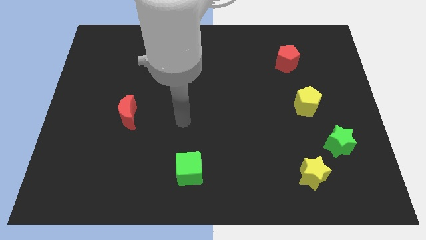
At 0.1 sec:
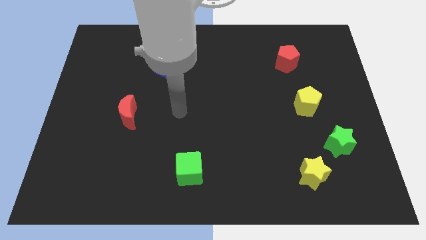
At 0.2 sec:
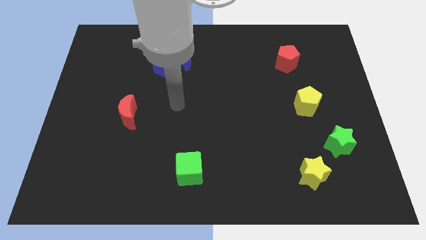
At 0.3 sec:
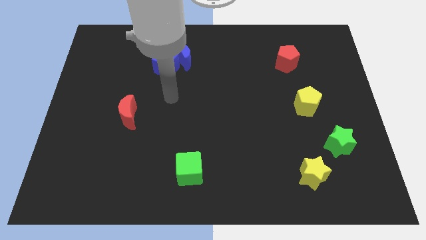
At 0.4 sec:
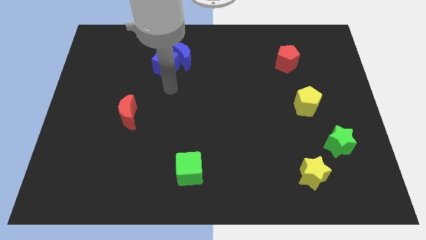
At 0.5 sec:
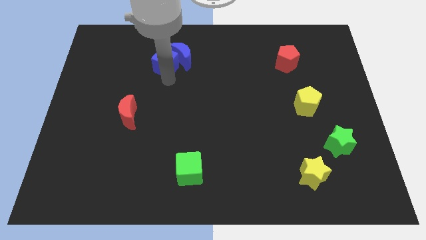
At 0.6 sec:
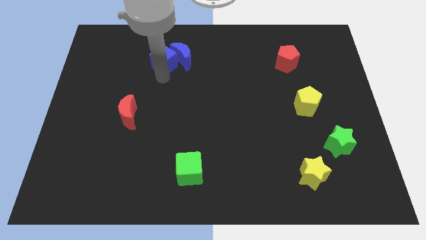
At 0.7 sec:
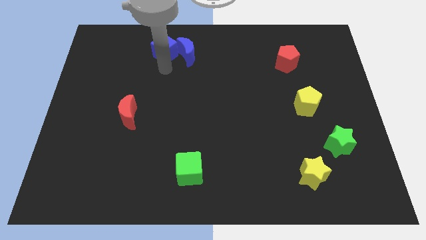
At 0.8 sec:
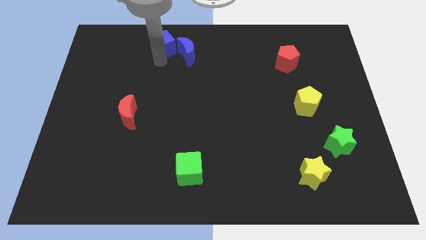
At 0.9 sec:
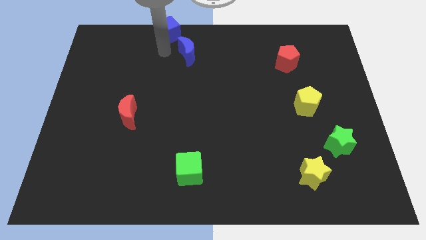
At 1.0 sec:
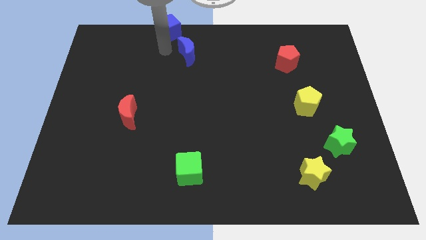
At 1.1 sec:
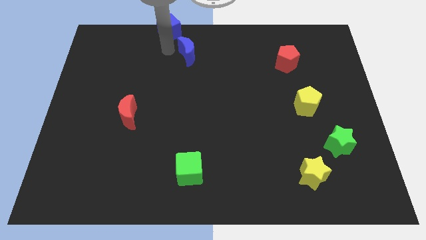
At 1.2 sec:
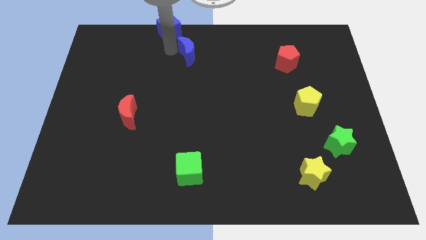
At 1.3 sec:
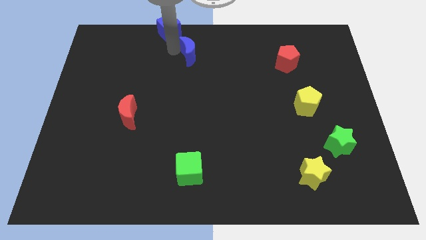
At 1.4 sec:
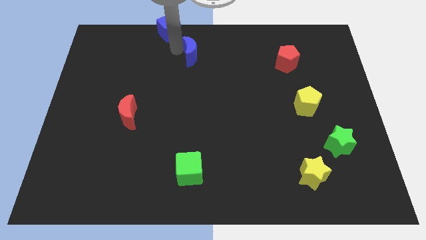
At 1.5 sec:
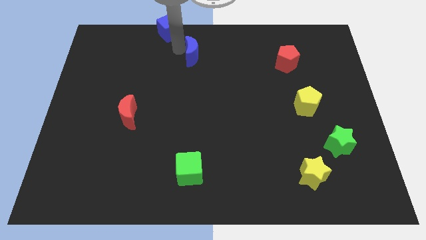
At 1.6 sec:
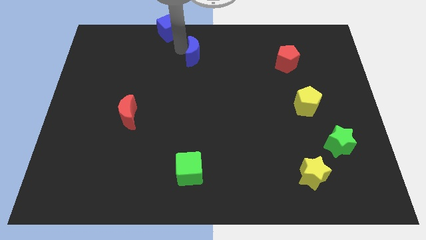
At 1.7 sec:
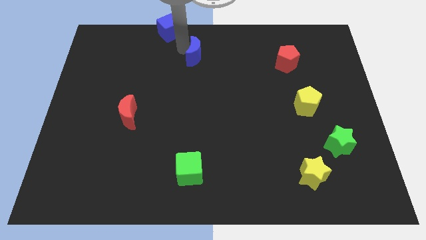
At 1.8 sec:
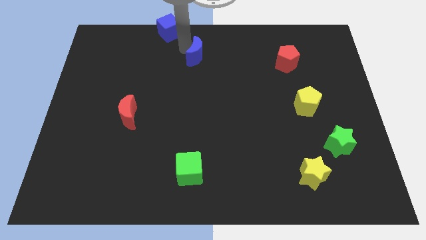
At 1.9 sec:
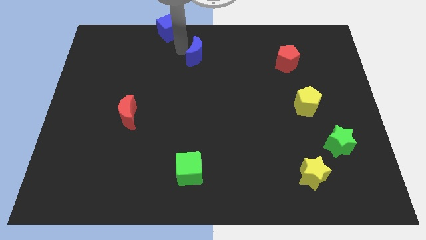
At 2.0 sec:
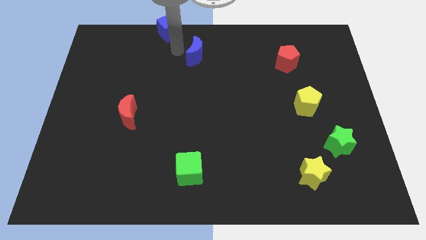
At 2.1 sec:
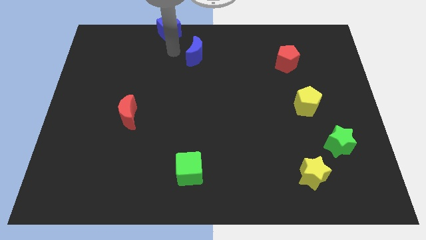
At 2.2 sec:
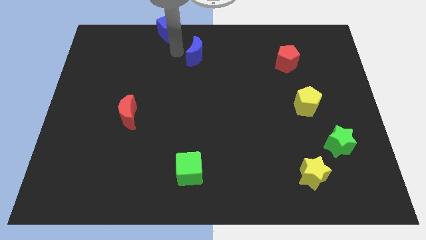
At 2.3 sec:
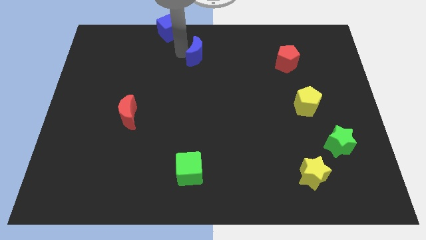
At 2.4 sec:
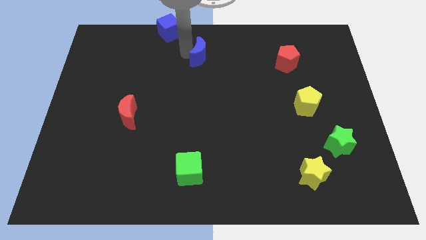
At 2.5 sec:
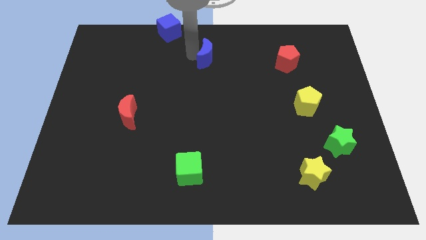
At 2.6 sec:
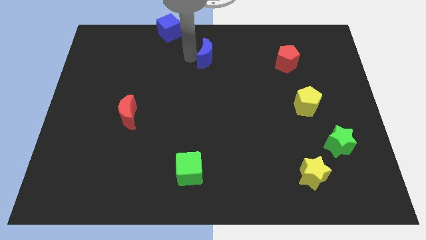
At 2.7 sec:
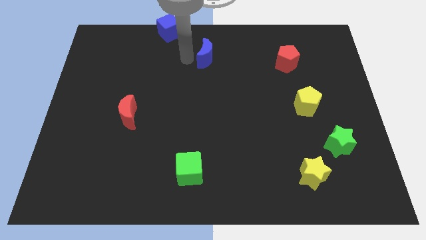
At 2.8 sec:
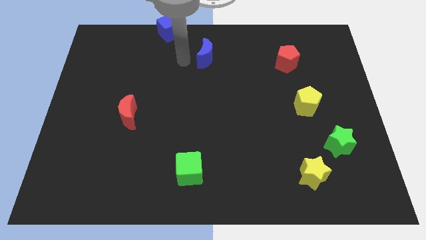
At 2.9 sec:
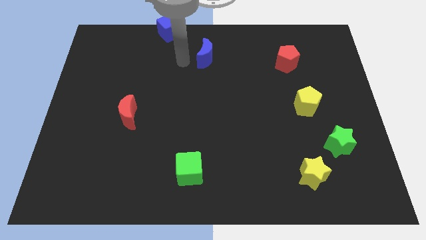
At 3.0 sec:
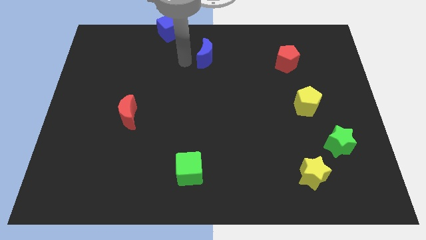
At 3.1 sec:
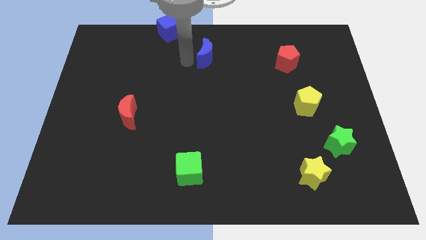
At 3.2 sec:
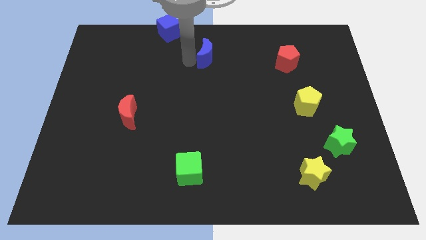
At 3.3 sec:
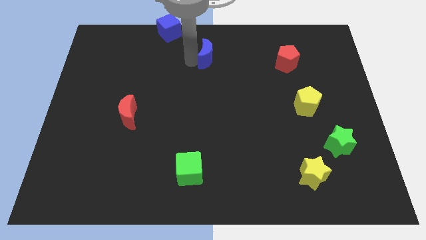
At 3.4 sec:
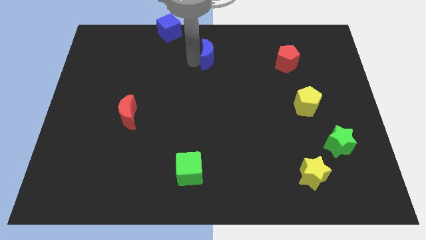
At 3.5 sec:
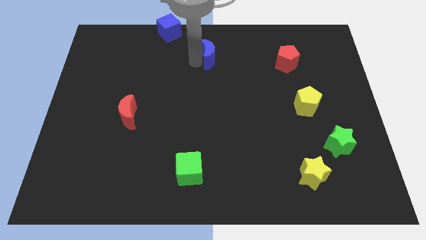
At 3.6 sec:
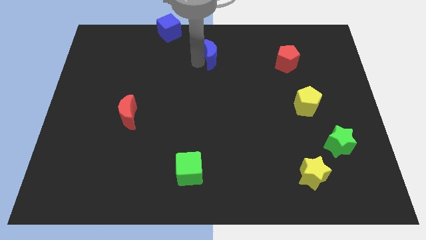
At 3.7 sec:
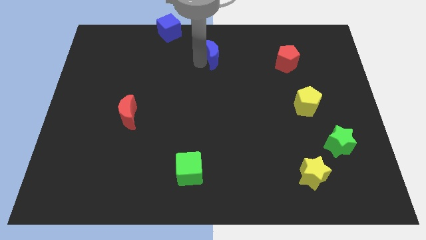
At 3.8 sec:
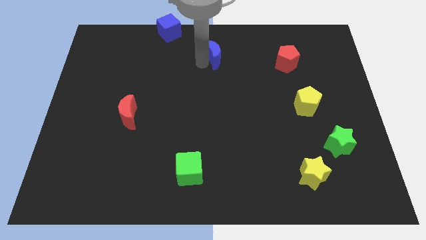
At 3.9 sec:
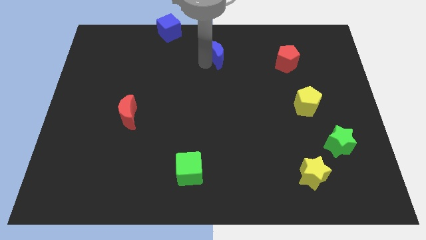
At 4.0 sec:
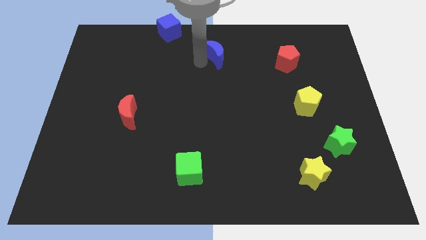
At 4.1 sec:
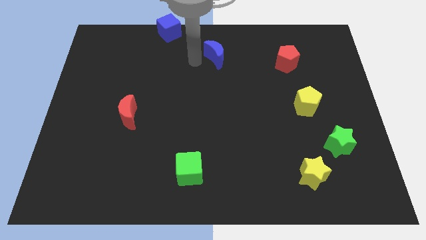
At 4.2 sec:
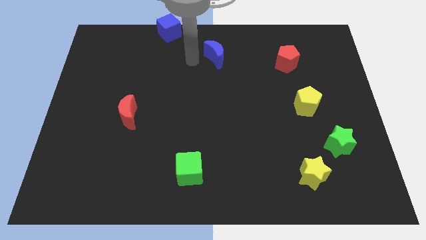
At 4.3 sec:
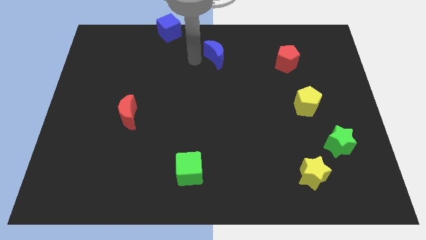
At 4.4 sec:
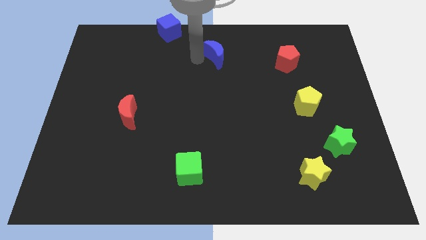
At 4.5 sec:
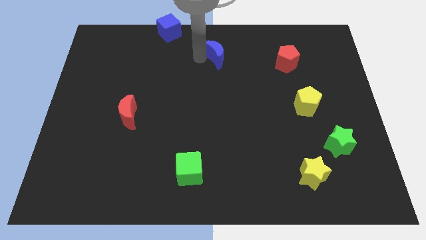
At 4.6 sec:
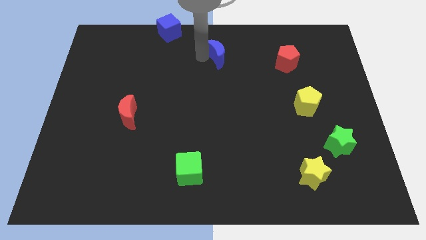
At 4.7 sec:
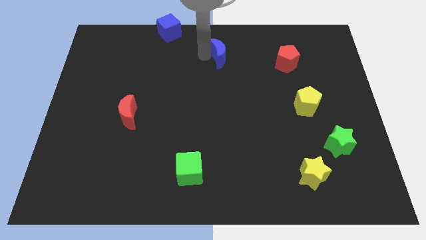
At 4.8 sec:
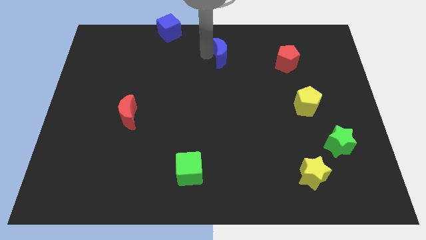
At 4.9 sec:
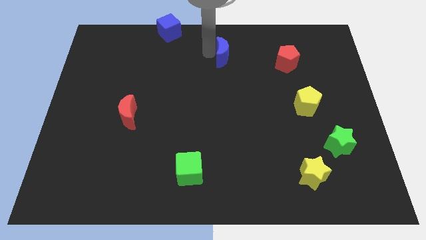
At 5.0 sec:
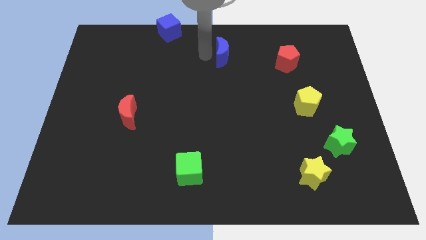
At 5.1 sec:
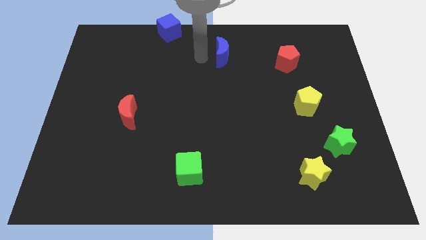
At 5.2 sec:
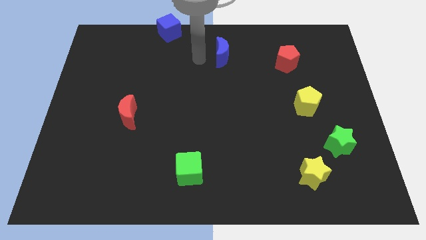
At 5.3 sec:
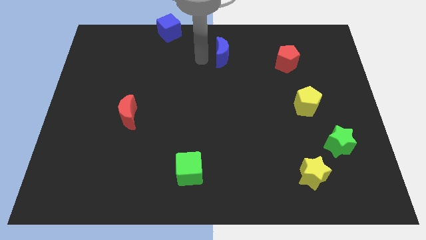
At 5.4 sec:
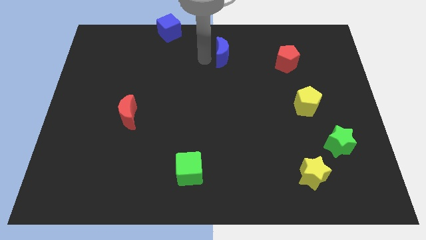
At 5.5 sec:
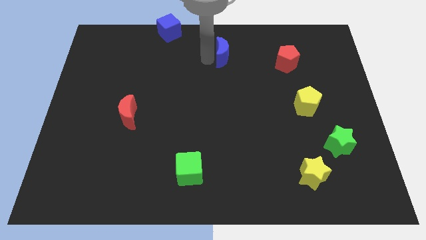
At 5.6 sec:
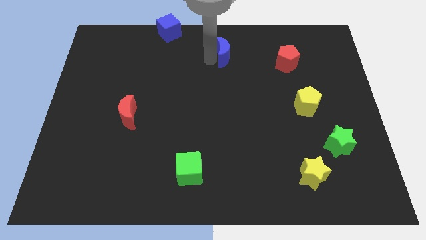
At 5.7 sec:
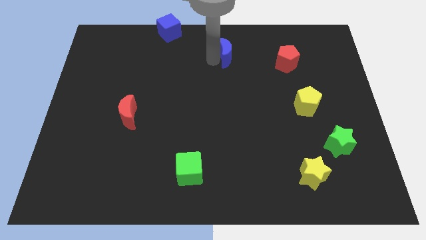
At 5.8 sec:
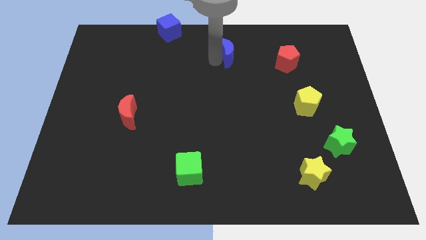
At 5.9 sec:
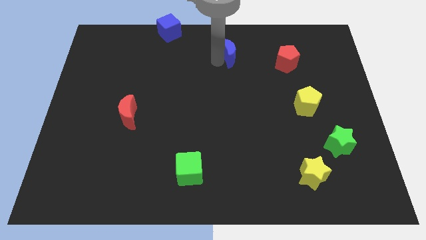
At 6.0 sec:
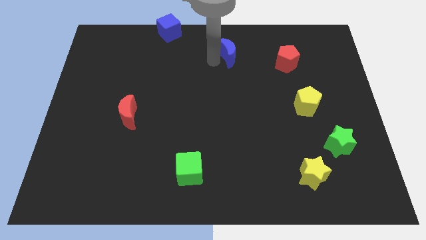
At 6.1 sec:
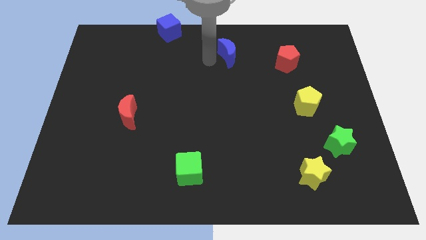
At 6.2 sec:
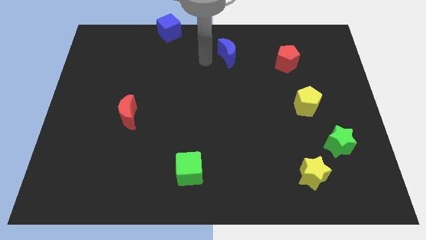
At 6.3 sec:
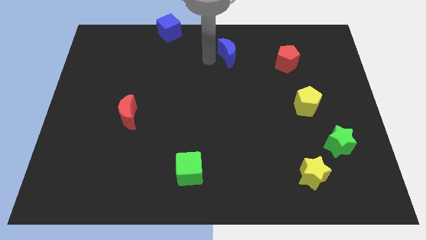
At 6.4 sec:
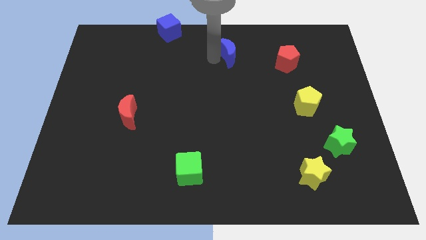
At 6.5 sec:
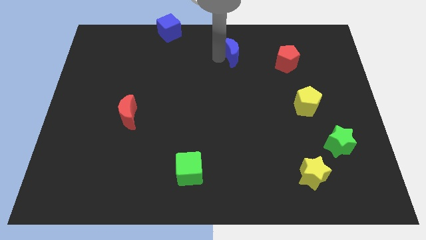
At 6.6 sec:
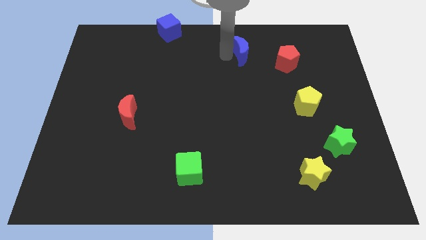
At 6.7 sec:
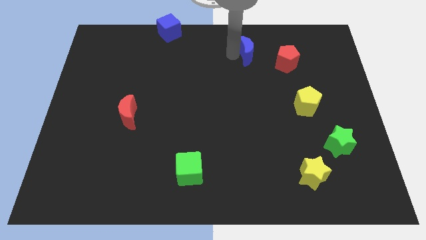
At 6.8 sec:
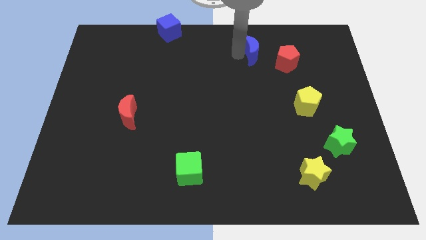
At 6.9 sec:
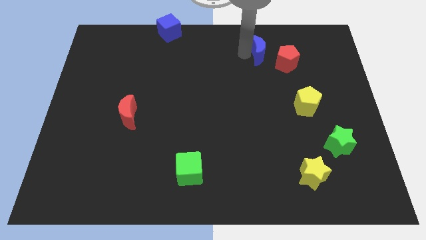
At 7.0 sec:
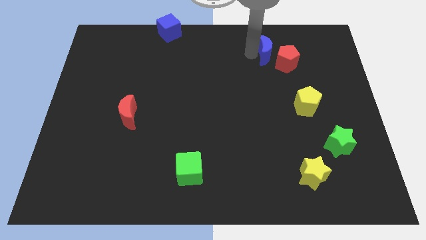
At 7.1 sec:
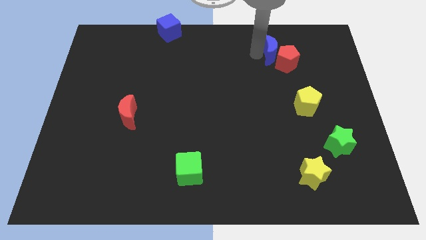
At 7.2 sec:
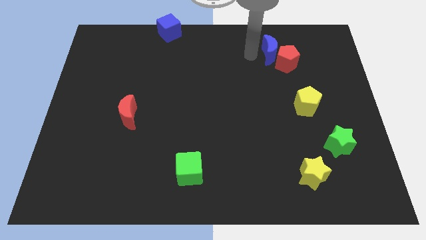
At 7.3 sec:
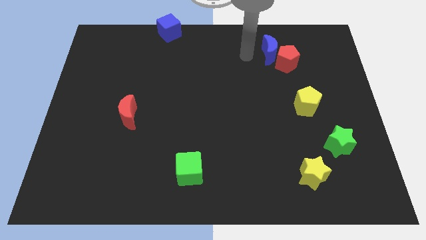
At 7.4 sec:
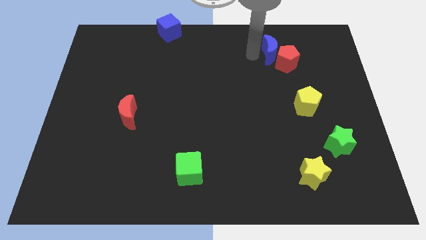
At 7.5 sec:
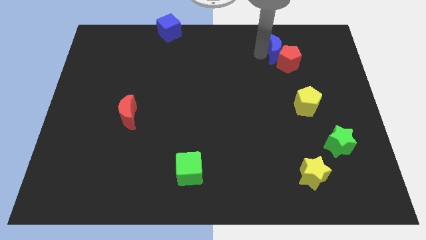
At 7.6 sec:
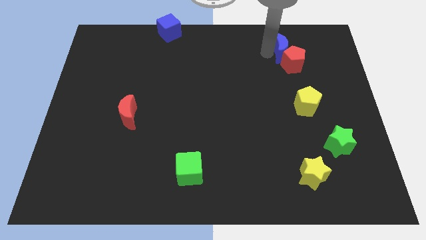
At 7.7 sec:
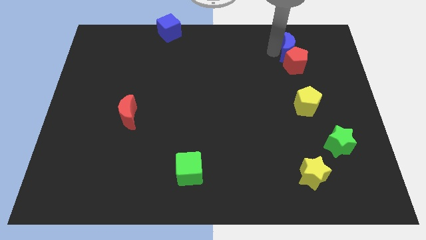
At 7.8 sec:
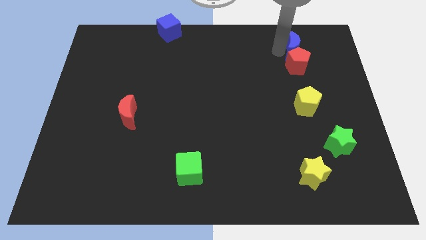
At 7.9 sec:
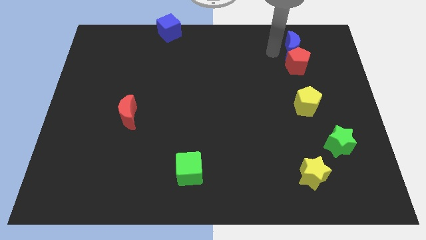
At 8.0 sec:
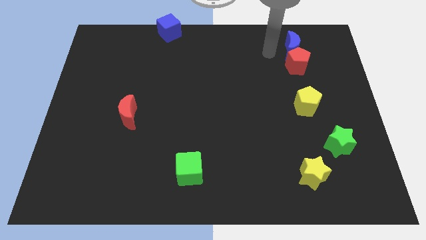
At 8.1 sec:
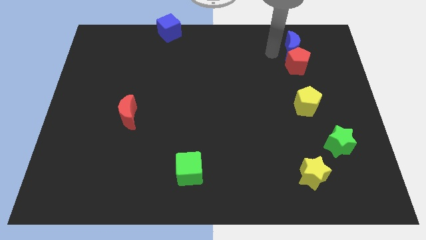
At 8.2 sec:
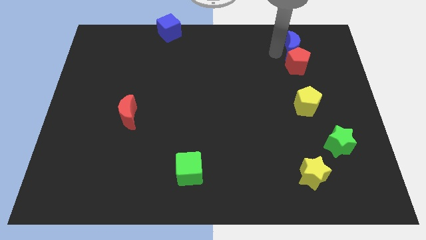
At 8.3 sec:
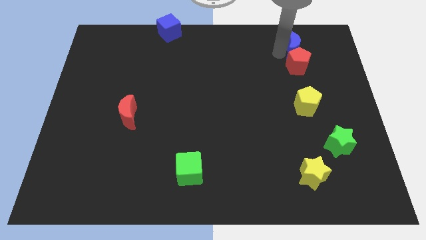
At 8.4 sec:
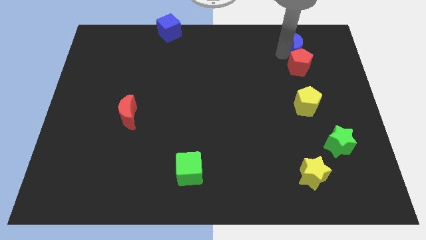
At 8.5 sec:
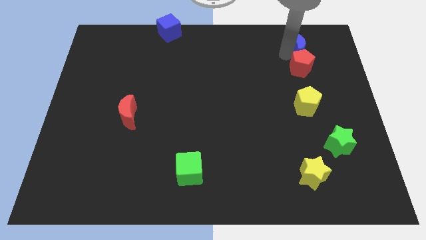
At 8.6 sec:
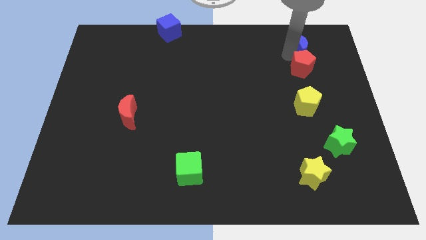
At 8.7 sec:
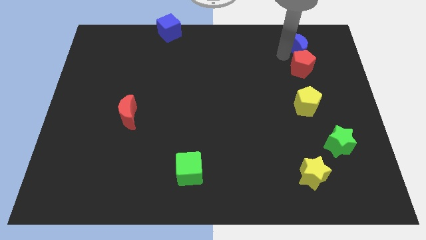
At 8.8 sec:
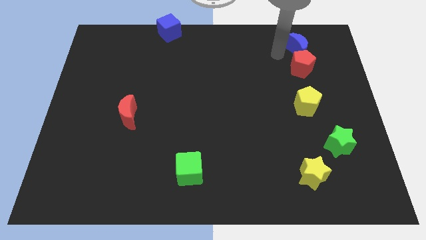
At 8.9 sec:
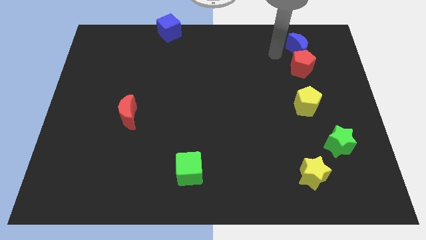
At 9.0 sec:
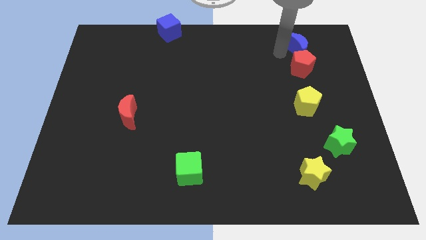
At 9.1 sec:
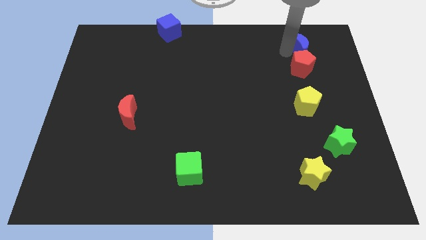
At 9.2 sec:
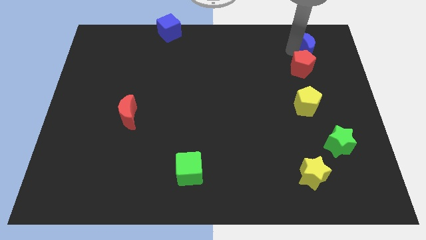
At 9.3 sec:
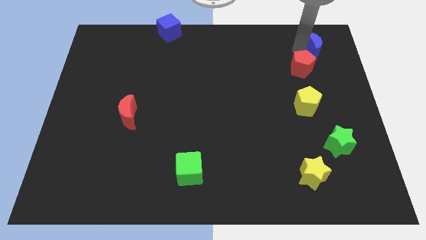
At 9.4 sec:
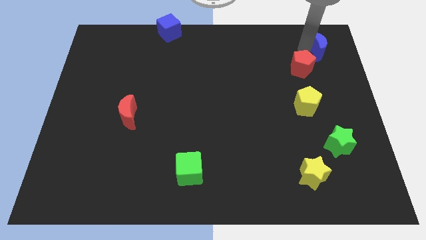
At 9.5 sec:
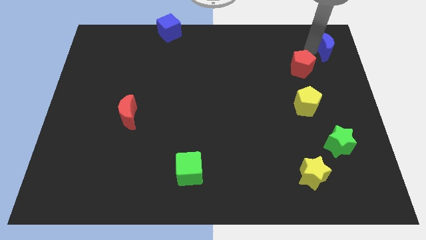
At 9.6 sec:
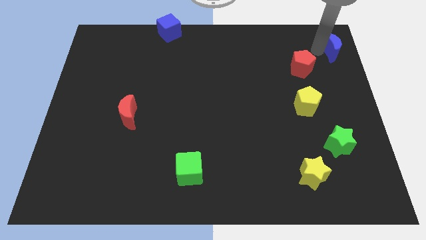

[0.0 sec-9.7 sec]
move the blue moon to the top right corner
